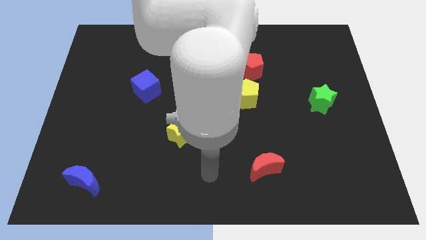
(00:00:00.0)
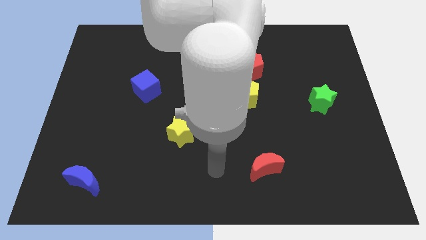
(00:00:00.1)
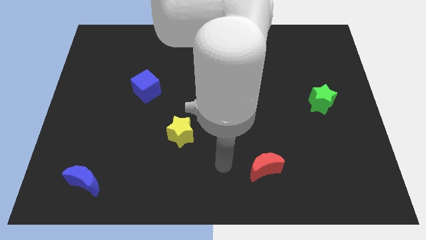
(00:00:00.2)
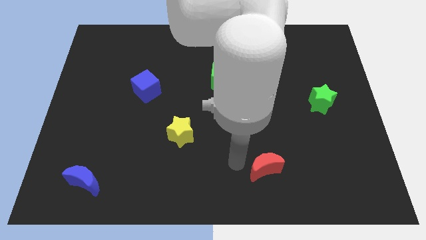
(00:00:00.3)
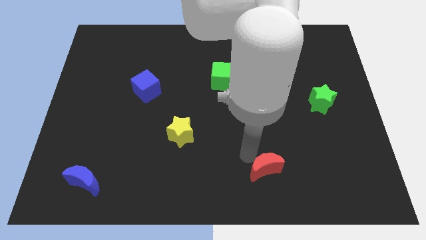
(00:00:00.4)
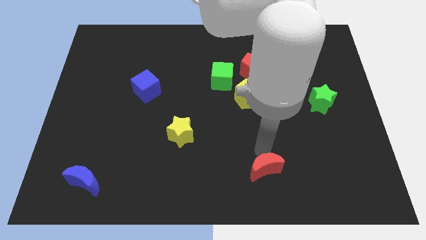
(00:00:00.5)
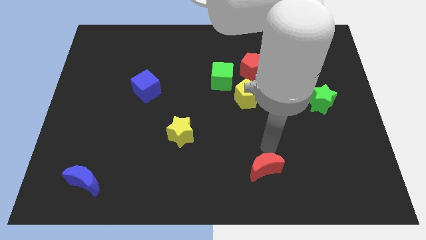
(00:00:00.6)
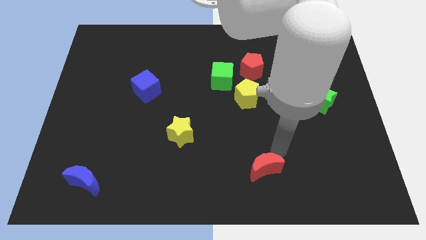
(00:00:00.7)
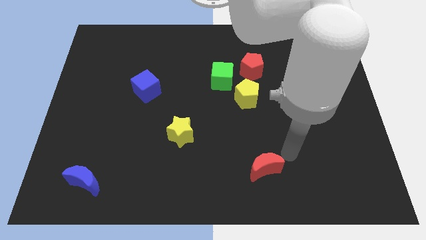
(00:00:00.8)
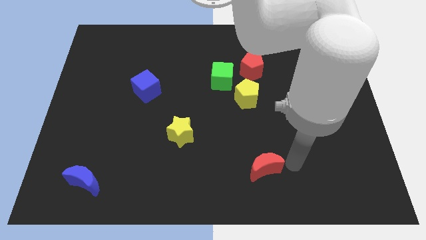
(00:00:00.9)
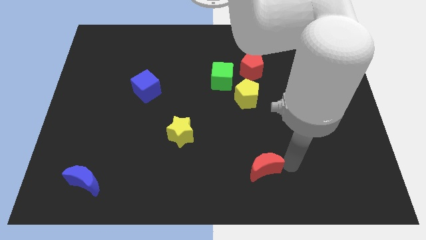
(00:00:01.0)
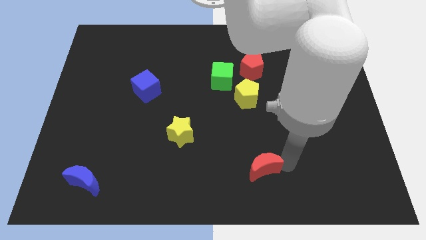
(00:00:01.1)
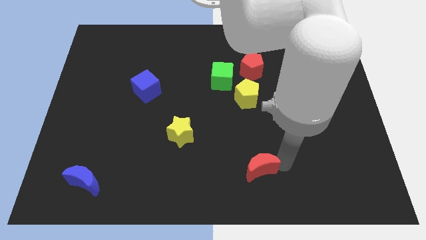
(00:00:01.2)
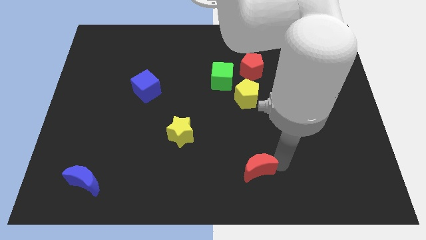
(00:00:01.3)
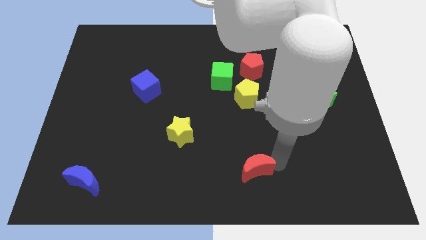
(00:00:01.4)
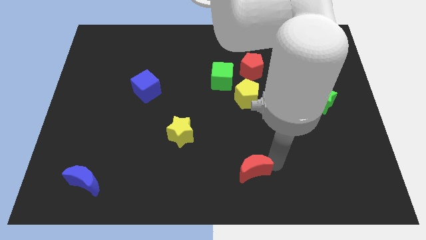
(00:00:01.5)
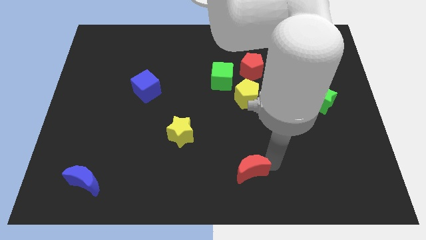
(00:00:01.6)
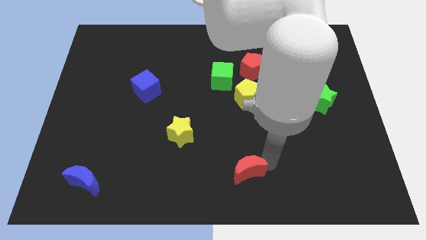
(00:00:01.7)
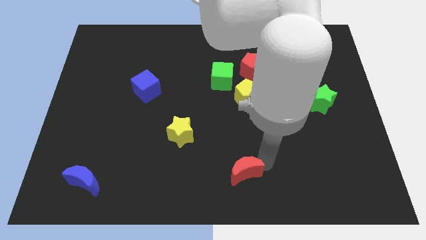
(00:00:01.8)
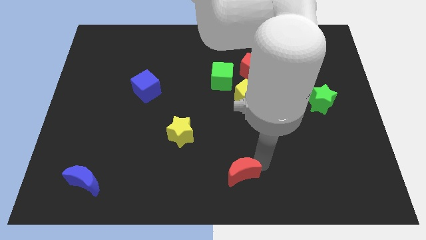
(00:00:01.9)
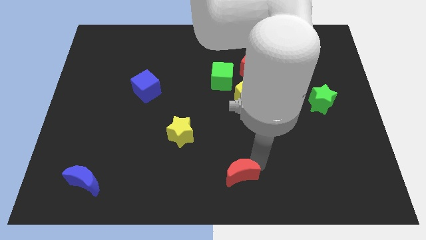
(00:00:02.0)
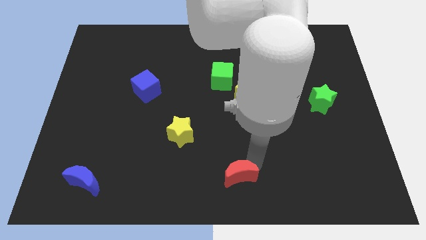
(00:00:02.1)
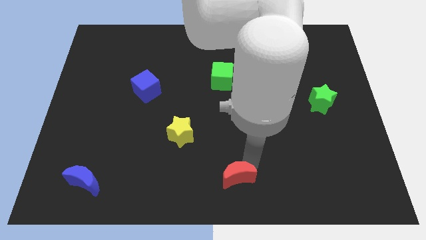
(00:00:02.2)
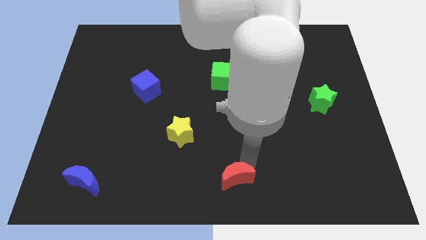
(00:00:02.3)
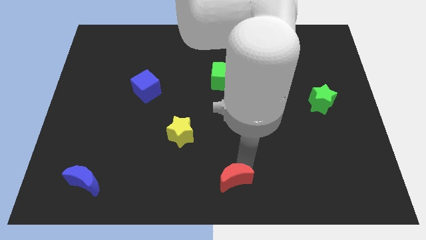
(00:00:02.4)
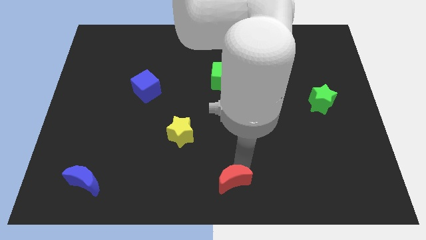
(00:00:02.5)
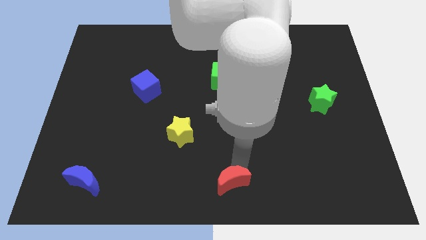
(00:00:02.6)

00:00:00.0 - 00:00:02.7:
slightly move the red moon left

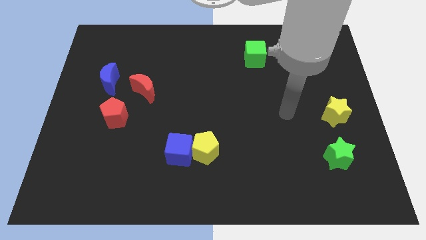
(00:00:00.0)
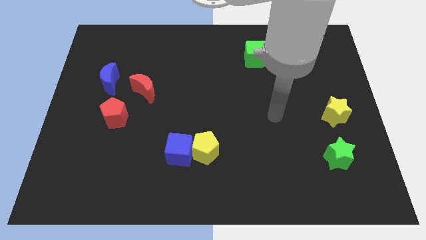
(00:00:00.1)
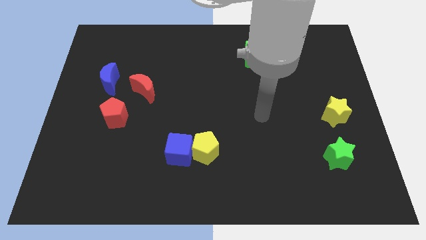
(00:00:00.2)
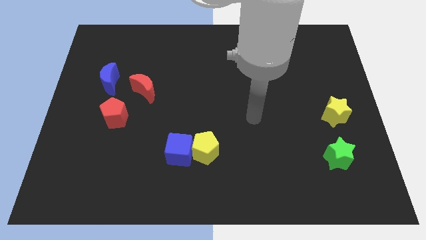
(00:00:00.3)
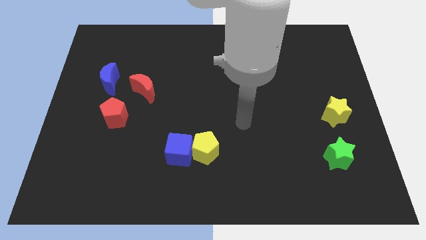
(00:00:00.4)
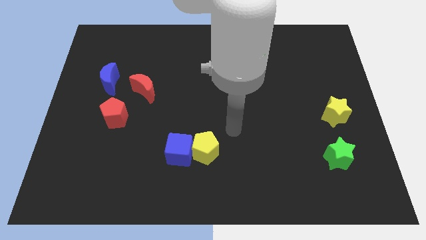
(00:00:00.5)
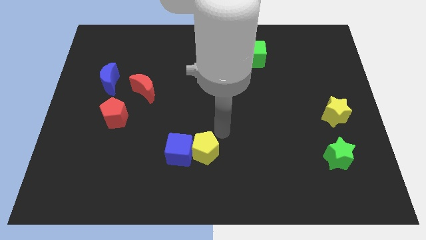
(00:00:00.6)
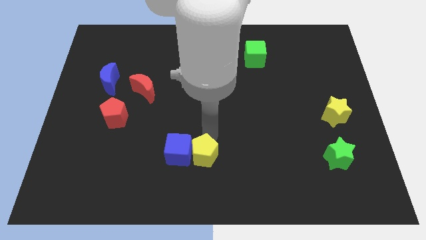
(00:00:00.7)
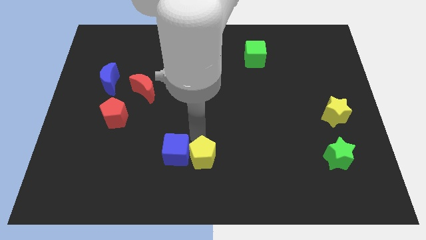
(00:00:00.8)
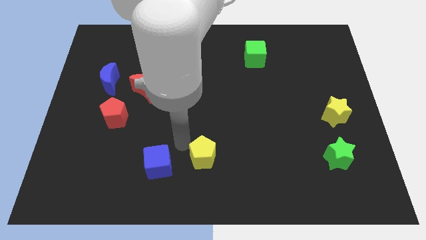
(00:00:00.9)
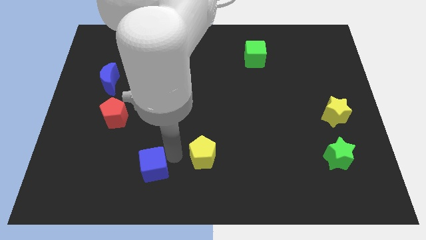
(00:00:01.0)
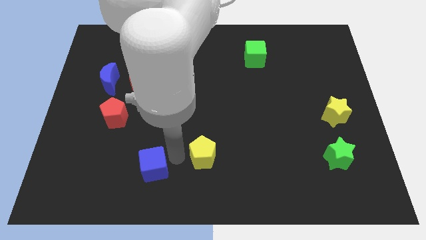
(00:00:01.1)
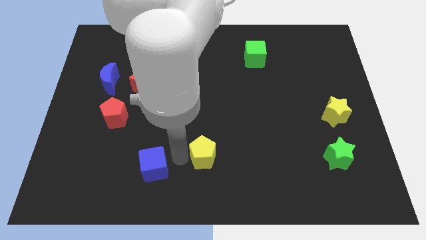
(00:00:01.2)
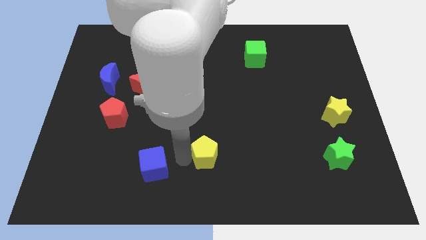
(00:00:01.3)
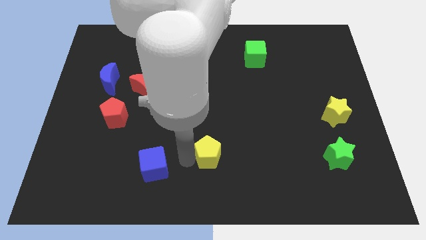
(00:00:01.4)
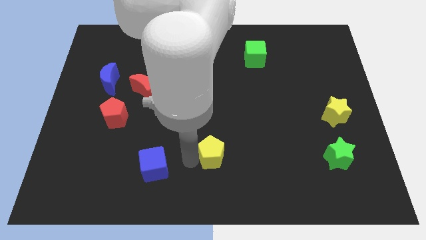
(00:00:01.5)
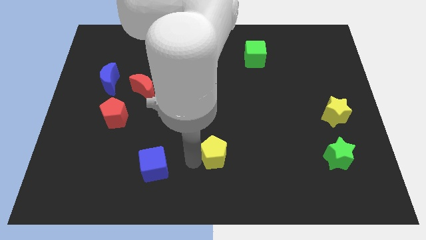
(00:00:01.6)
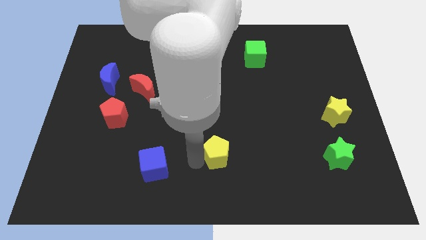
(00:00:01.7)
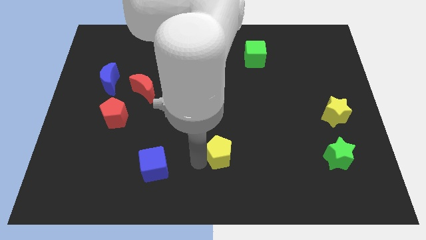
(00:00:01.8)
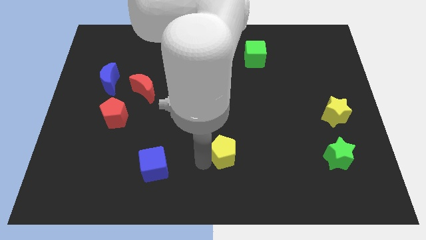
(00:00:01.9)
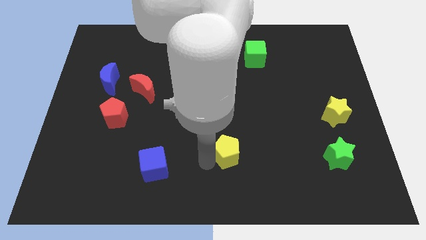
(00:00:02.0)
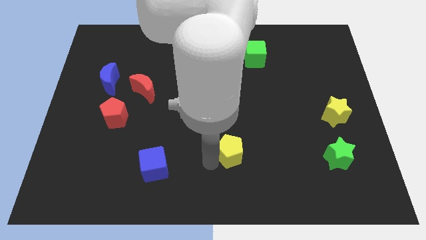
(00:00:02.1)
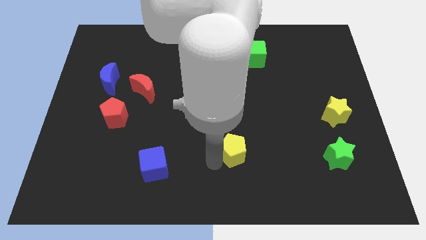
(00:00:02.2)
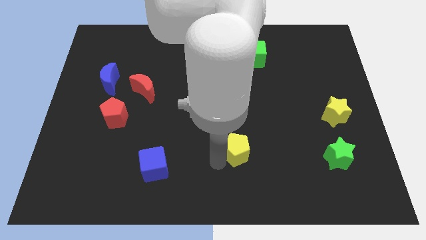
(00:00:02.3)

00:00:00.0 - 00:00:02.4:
slightly slide the yellow pentagon to the right

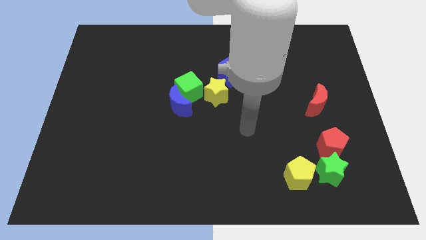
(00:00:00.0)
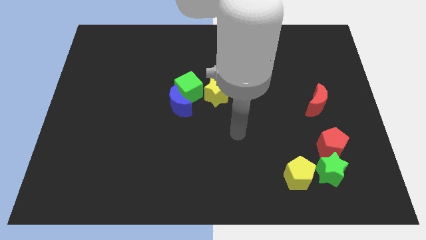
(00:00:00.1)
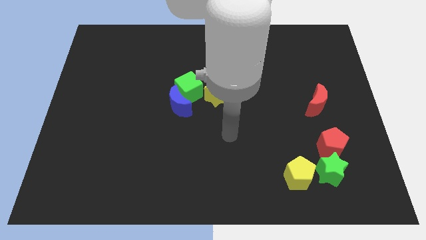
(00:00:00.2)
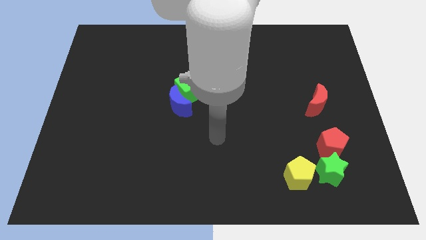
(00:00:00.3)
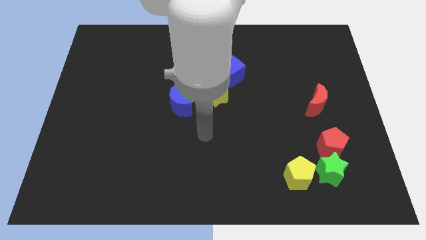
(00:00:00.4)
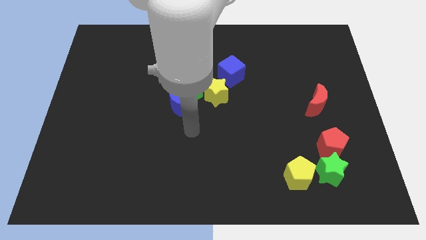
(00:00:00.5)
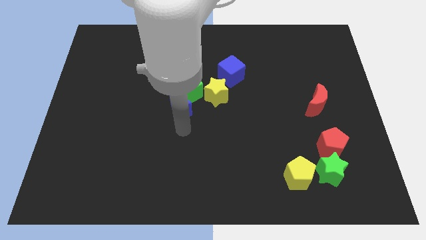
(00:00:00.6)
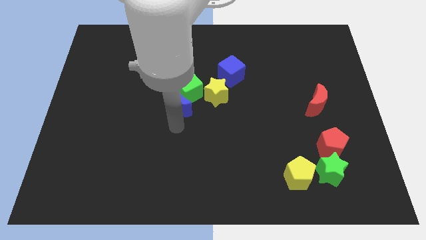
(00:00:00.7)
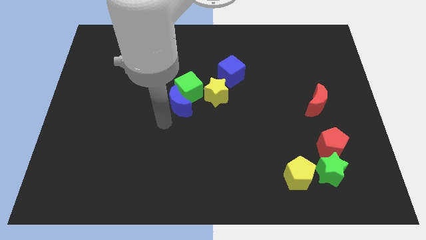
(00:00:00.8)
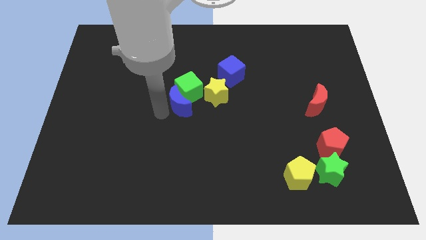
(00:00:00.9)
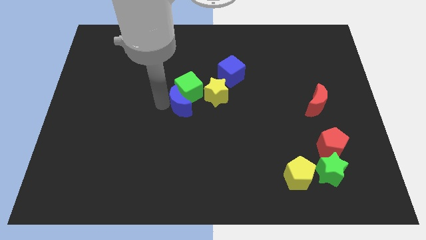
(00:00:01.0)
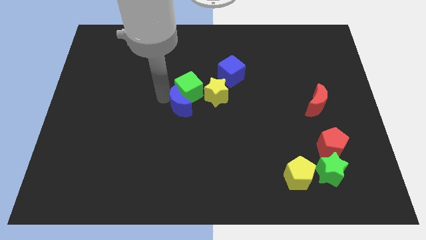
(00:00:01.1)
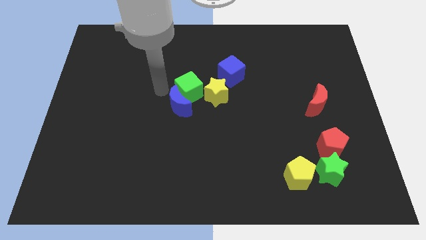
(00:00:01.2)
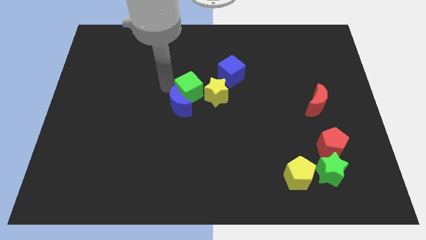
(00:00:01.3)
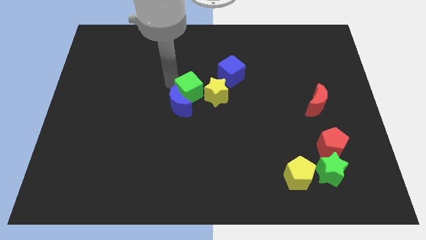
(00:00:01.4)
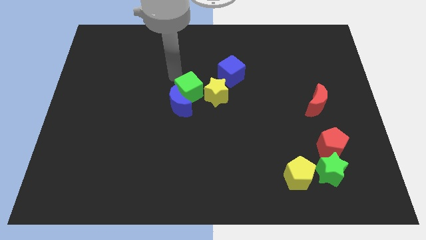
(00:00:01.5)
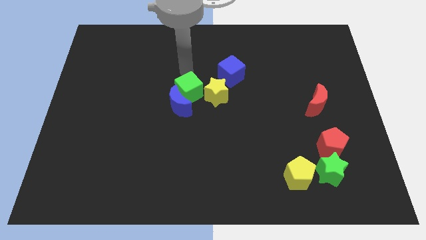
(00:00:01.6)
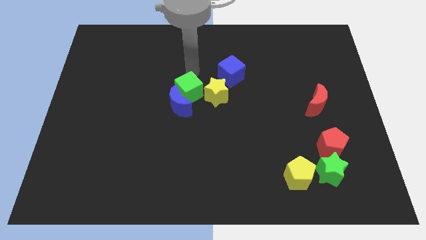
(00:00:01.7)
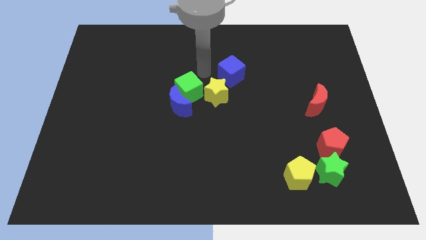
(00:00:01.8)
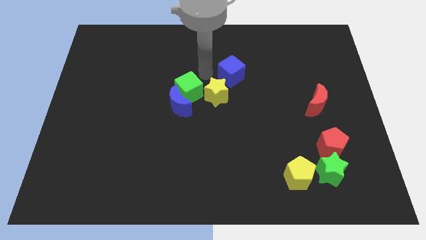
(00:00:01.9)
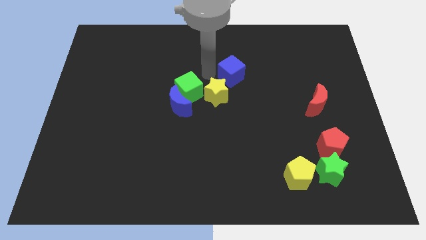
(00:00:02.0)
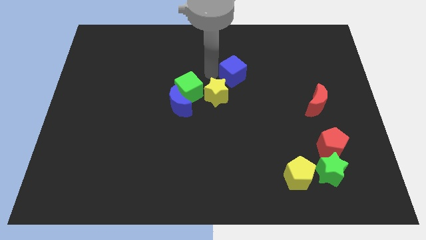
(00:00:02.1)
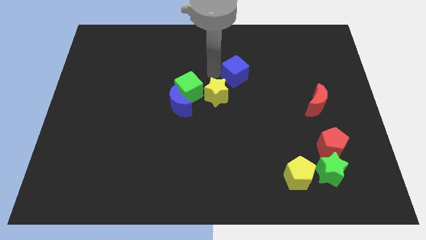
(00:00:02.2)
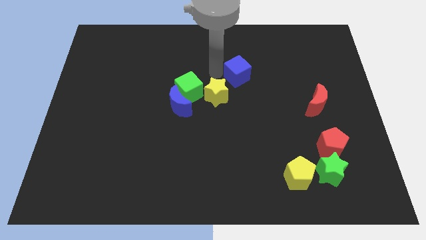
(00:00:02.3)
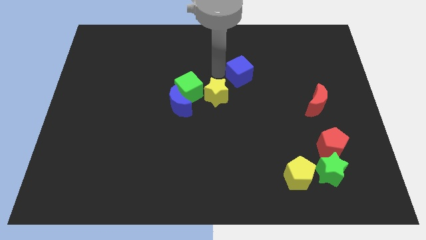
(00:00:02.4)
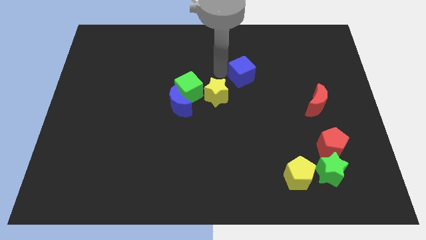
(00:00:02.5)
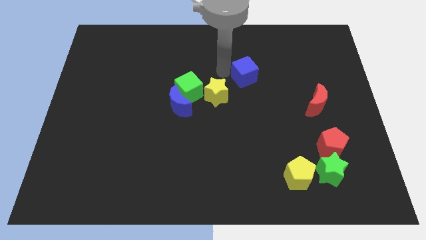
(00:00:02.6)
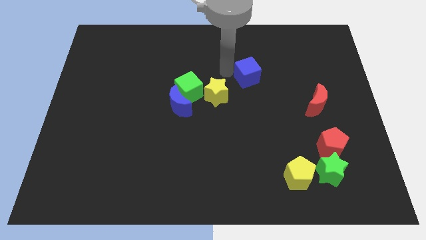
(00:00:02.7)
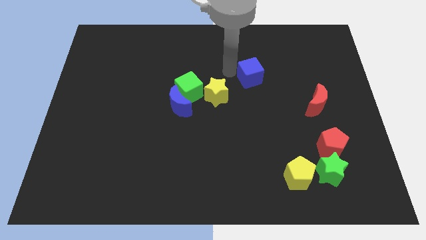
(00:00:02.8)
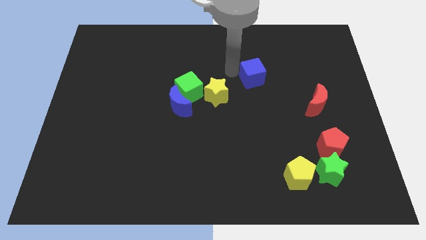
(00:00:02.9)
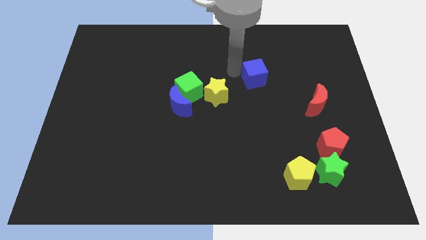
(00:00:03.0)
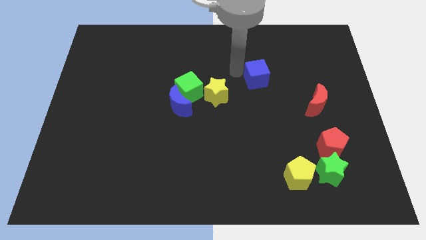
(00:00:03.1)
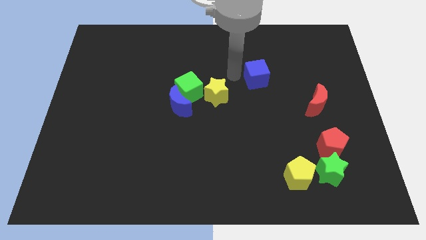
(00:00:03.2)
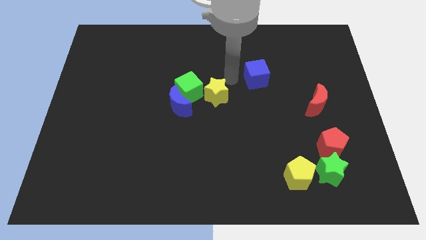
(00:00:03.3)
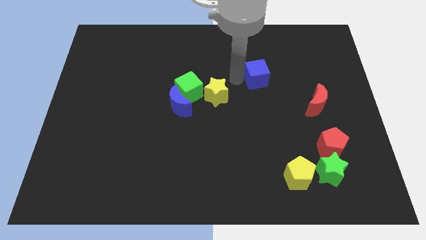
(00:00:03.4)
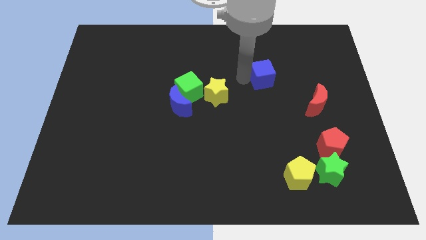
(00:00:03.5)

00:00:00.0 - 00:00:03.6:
slide the blue cube right a little
